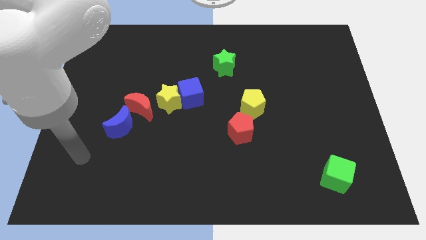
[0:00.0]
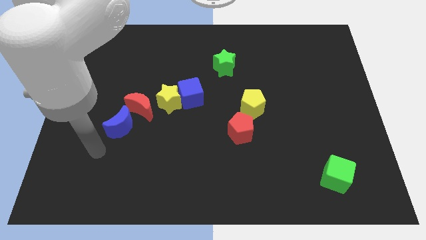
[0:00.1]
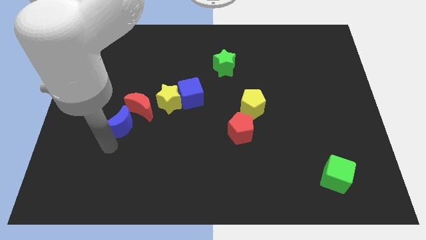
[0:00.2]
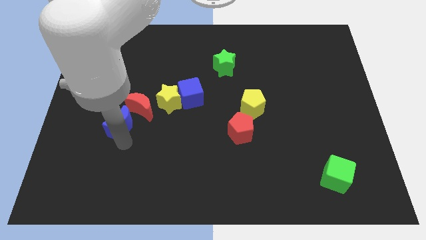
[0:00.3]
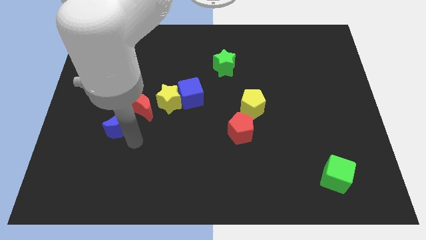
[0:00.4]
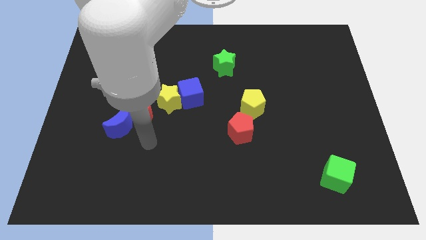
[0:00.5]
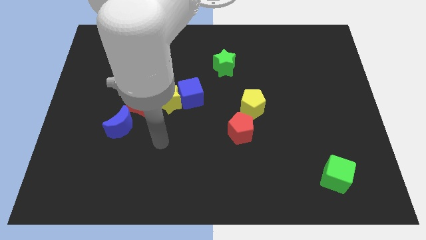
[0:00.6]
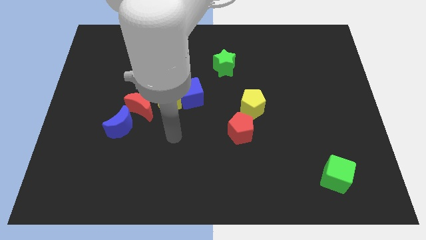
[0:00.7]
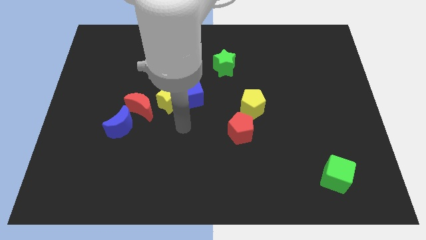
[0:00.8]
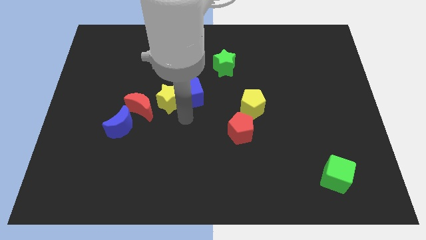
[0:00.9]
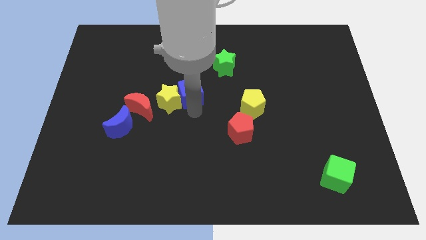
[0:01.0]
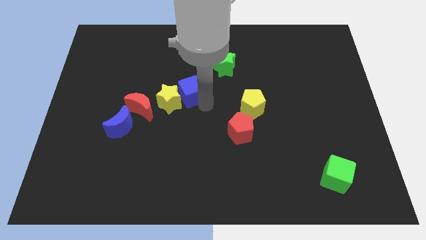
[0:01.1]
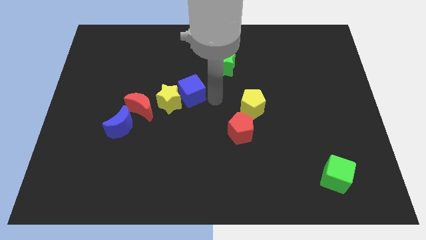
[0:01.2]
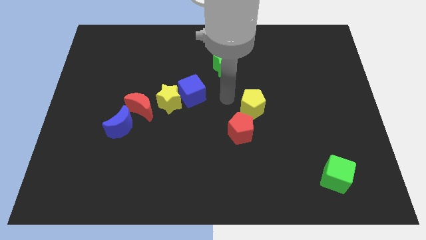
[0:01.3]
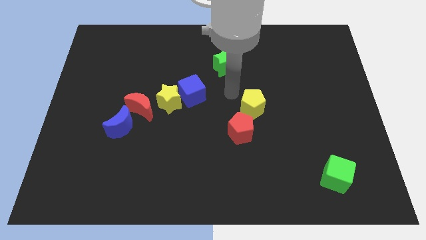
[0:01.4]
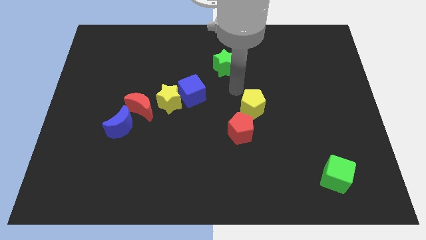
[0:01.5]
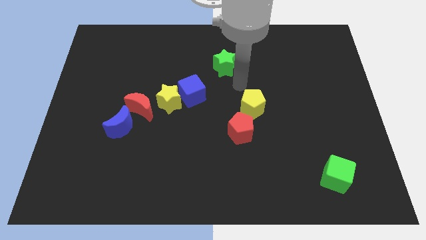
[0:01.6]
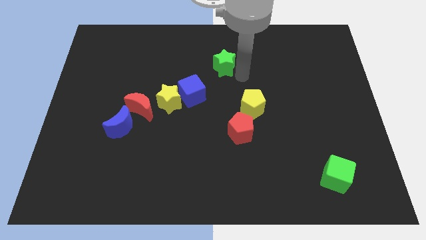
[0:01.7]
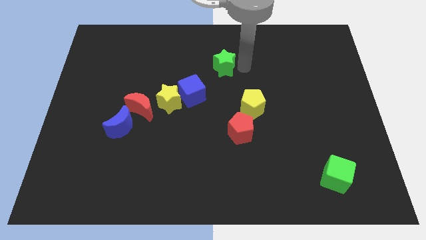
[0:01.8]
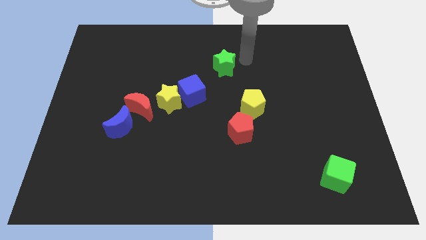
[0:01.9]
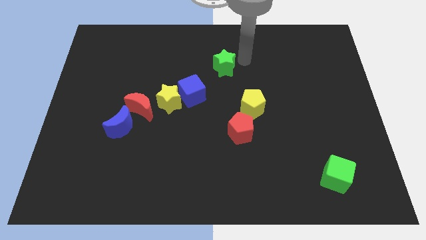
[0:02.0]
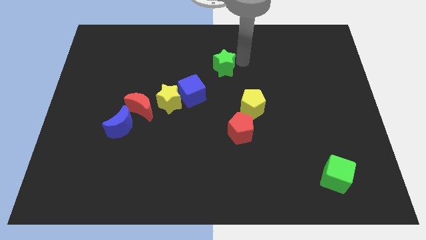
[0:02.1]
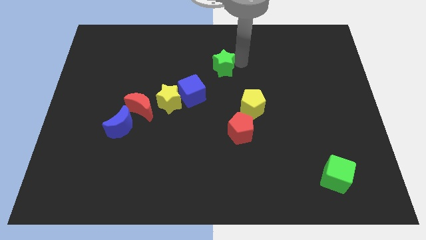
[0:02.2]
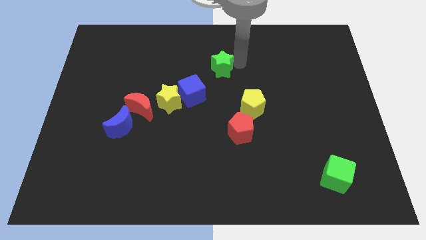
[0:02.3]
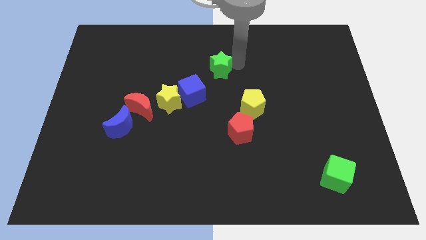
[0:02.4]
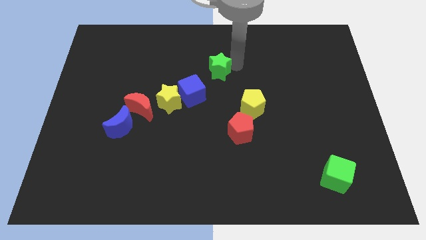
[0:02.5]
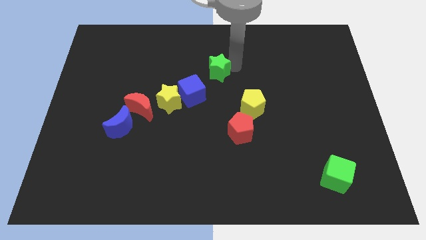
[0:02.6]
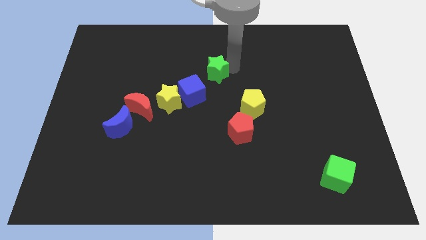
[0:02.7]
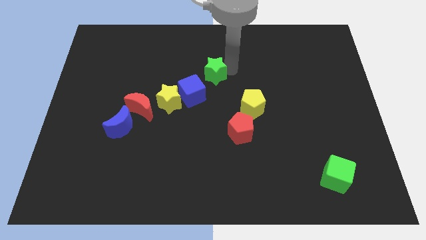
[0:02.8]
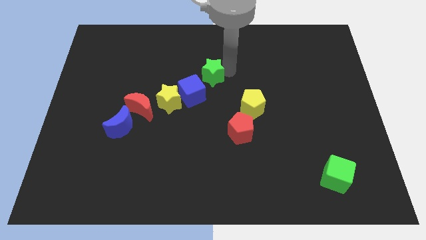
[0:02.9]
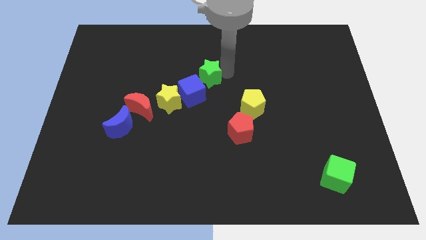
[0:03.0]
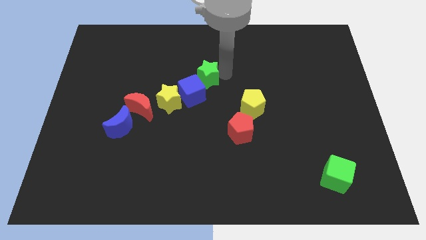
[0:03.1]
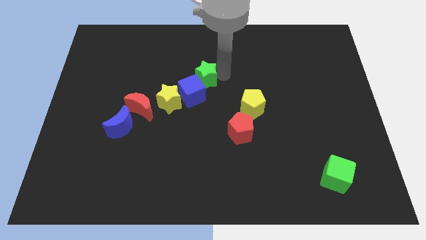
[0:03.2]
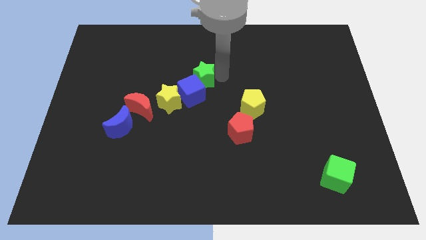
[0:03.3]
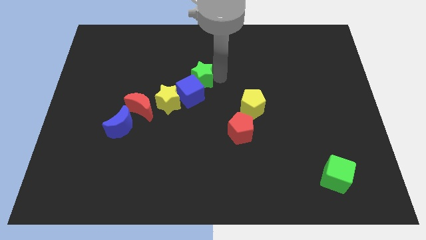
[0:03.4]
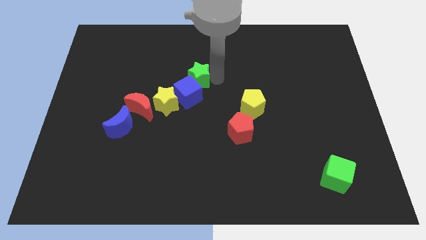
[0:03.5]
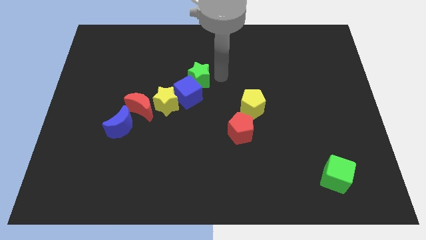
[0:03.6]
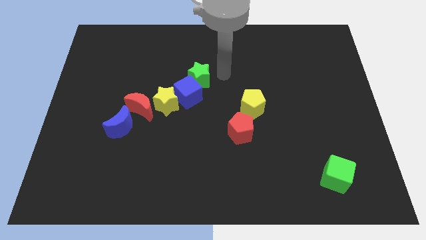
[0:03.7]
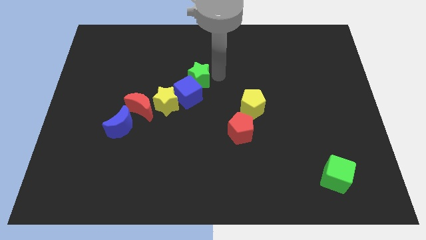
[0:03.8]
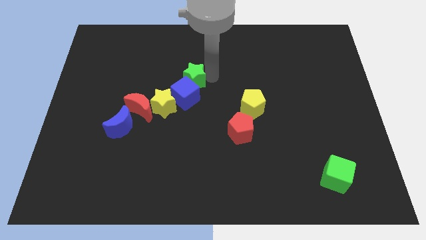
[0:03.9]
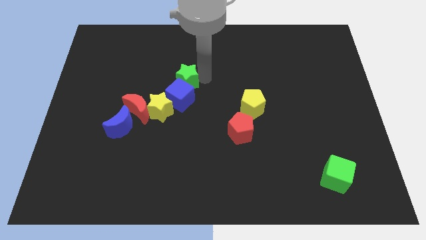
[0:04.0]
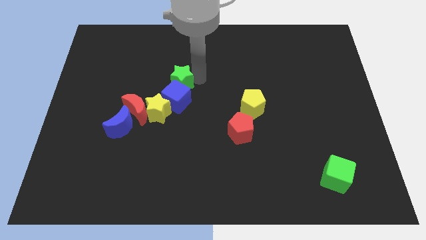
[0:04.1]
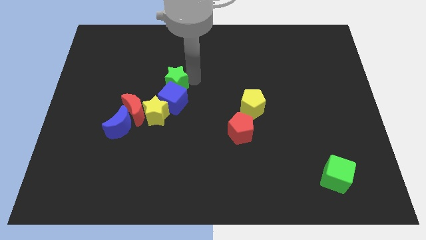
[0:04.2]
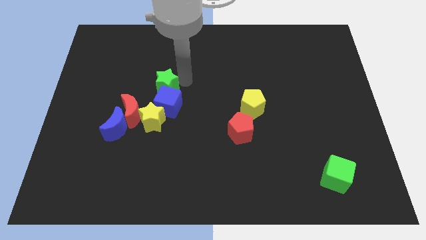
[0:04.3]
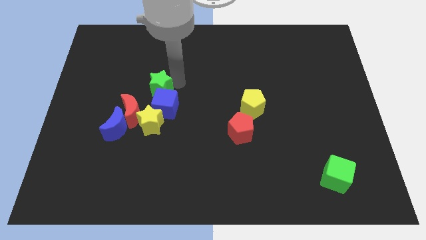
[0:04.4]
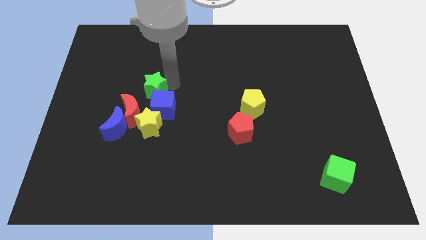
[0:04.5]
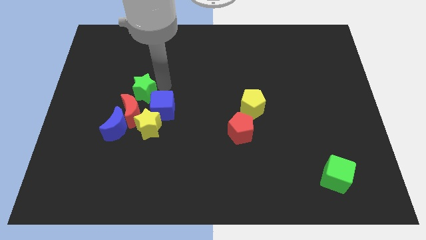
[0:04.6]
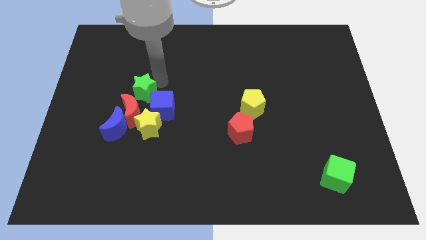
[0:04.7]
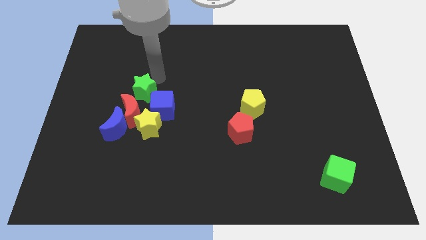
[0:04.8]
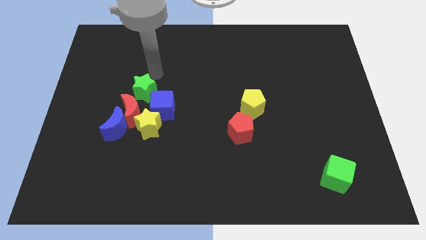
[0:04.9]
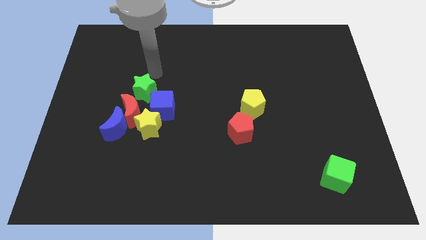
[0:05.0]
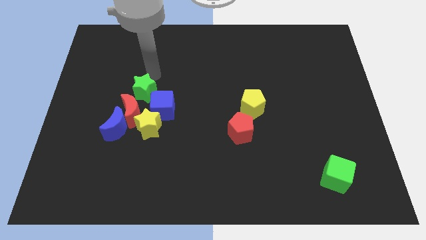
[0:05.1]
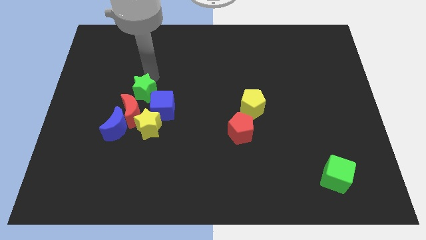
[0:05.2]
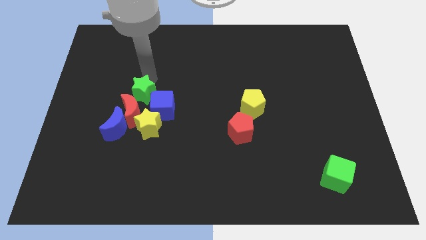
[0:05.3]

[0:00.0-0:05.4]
push the green star next to the red moon

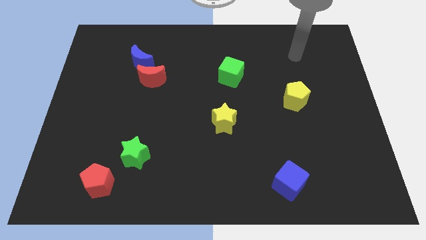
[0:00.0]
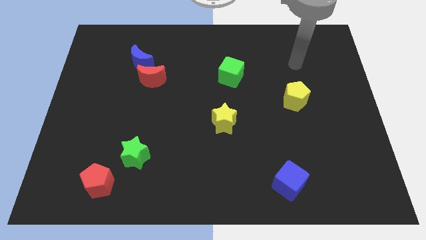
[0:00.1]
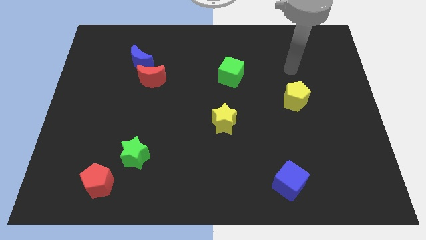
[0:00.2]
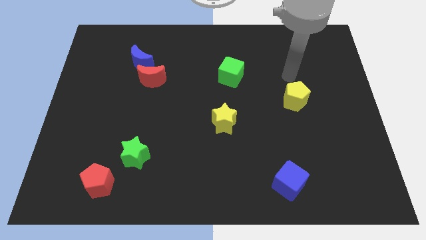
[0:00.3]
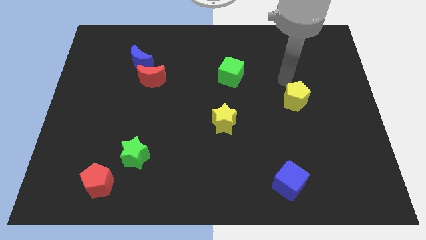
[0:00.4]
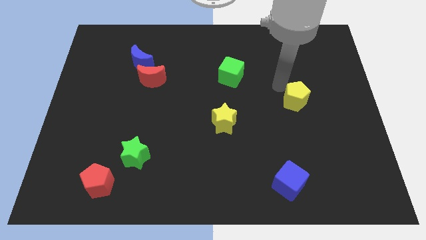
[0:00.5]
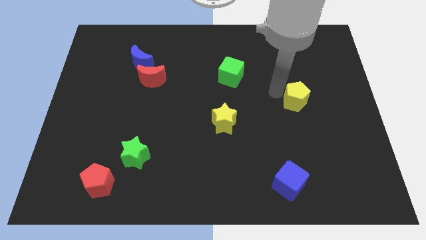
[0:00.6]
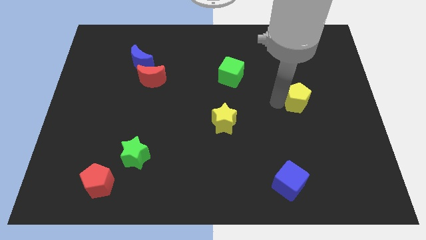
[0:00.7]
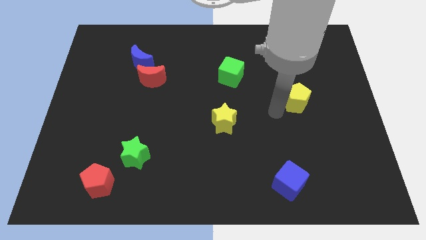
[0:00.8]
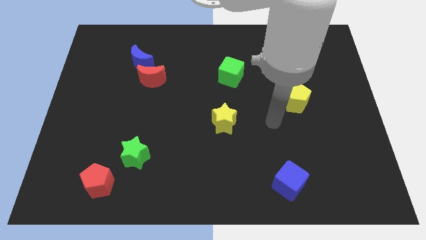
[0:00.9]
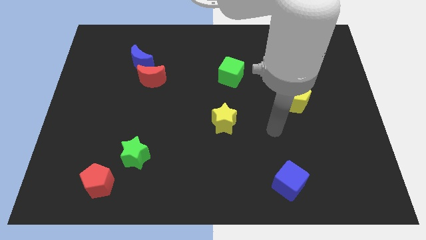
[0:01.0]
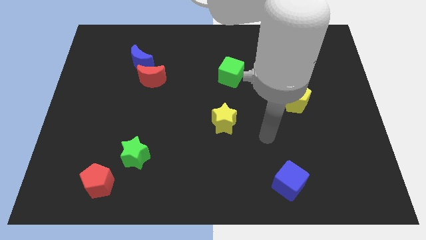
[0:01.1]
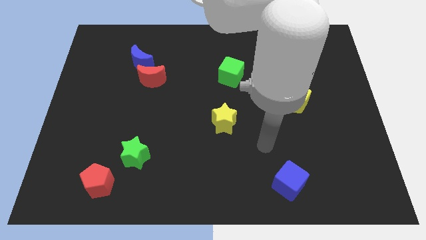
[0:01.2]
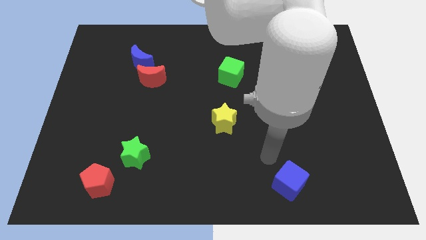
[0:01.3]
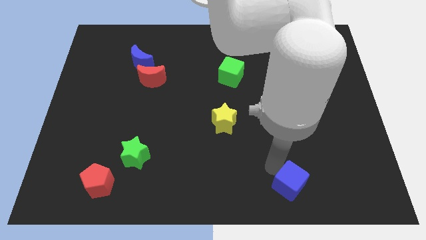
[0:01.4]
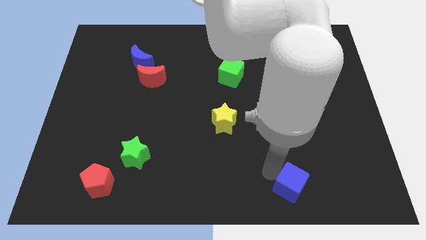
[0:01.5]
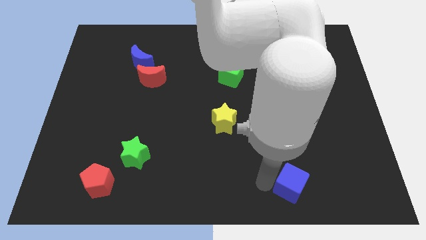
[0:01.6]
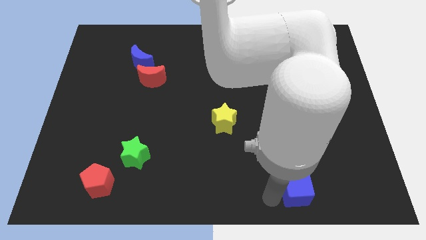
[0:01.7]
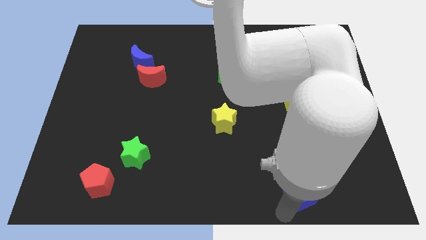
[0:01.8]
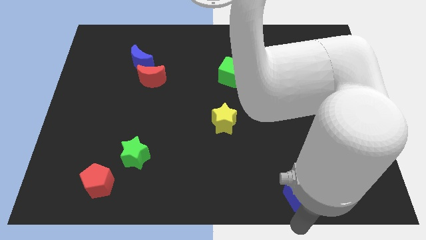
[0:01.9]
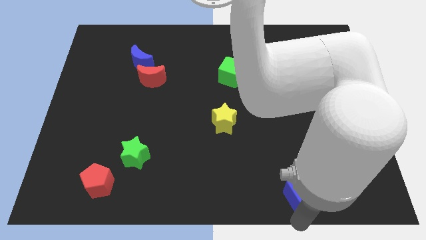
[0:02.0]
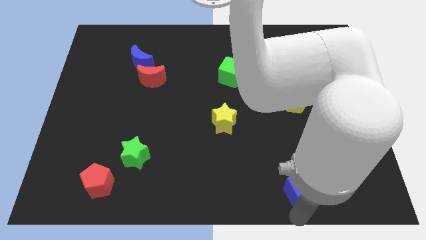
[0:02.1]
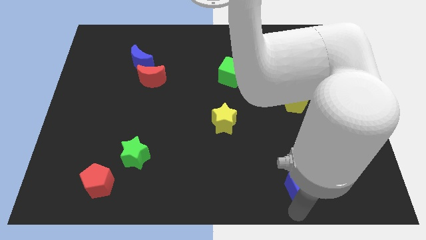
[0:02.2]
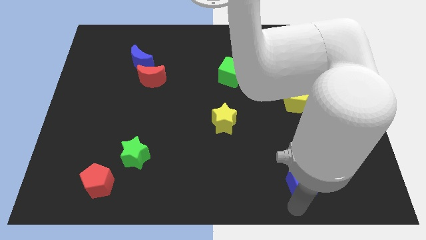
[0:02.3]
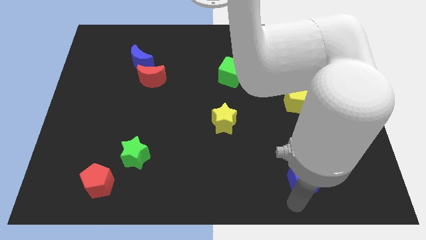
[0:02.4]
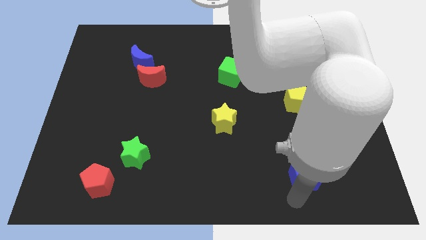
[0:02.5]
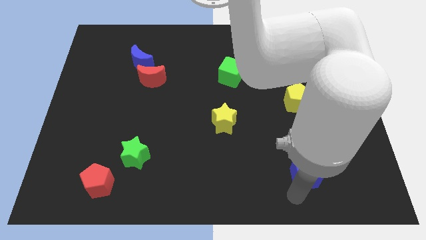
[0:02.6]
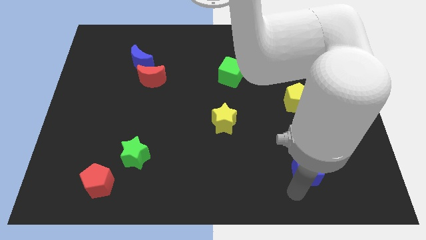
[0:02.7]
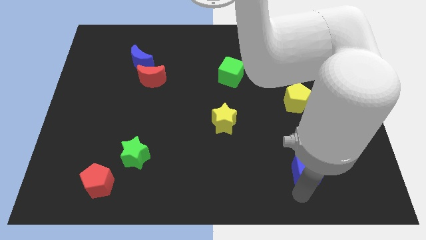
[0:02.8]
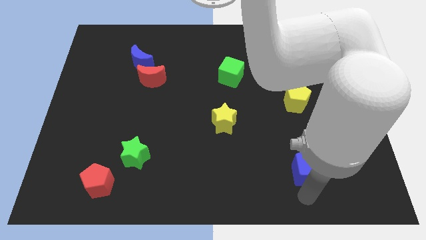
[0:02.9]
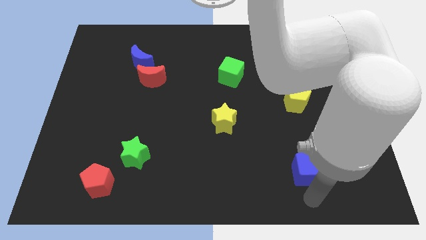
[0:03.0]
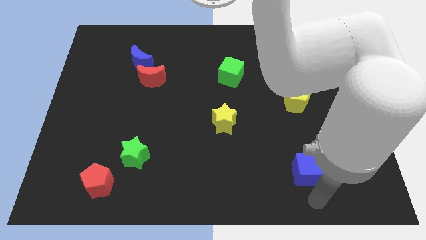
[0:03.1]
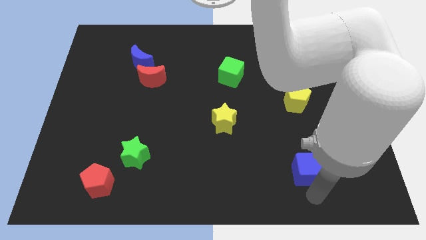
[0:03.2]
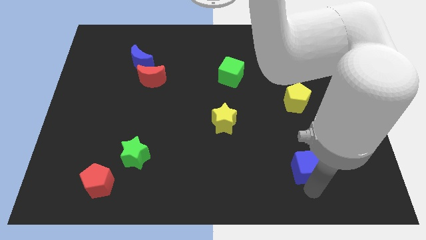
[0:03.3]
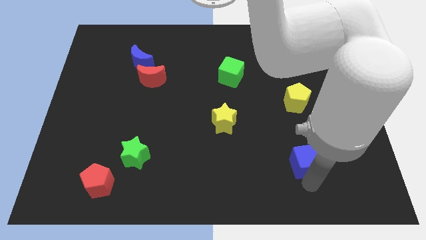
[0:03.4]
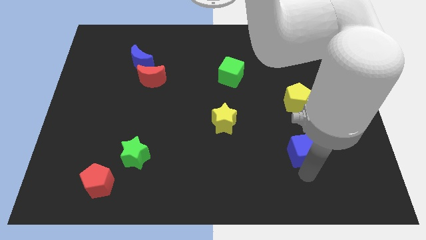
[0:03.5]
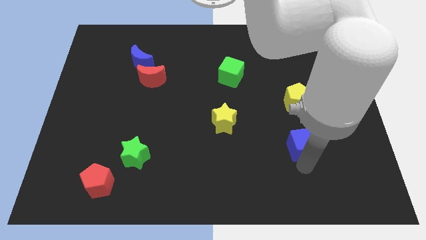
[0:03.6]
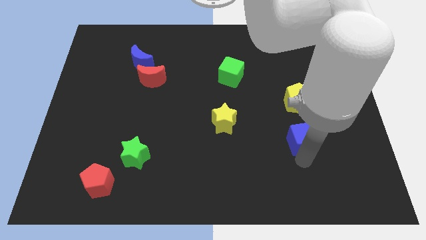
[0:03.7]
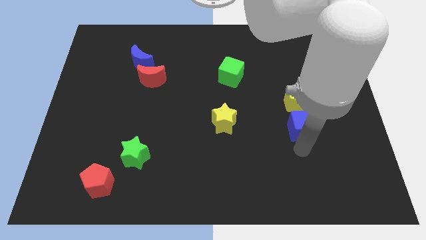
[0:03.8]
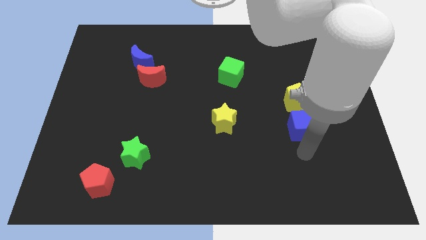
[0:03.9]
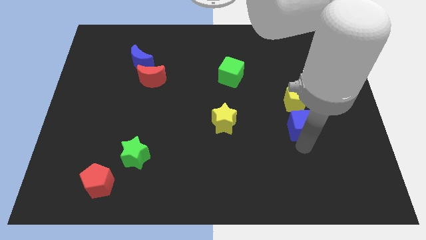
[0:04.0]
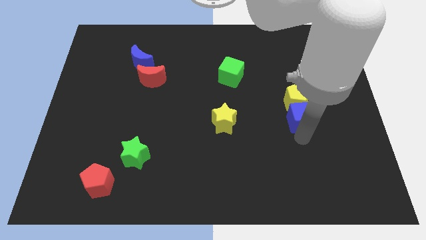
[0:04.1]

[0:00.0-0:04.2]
push the blue cube to the yellow pentagon
